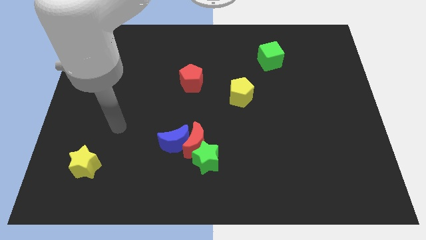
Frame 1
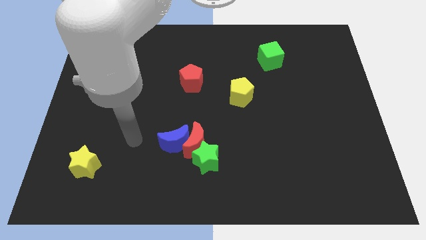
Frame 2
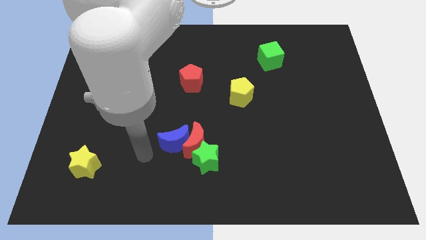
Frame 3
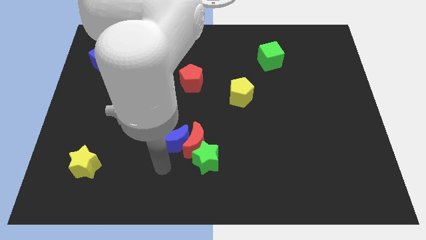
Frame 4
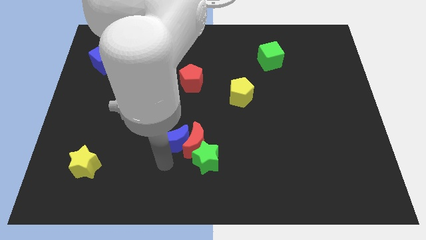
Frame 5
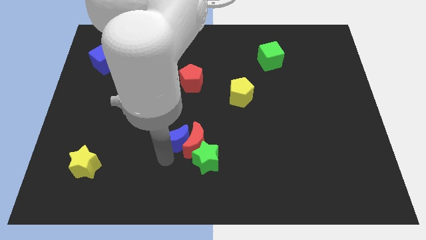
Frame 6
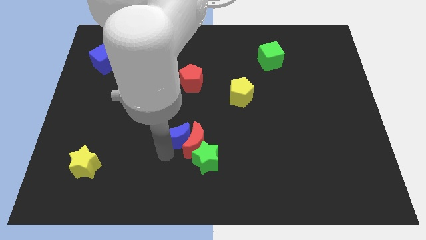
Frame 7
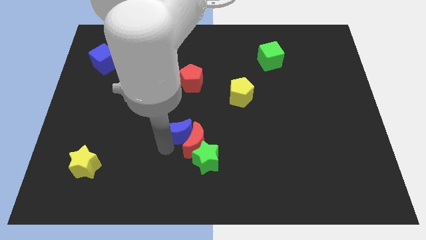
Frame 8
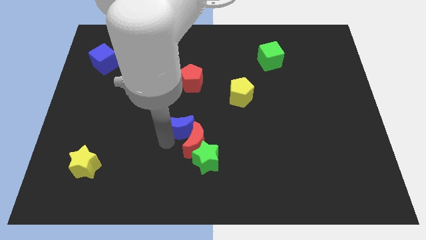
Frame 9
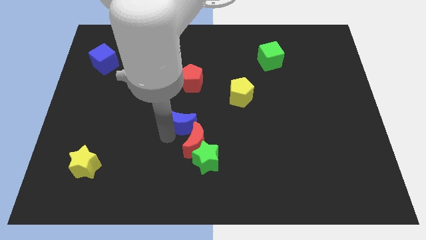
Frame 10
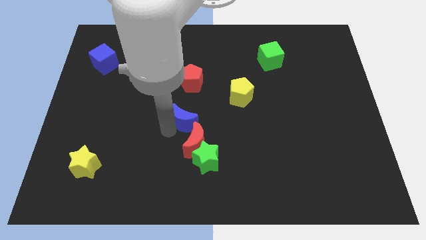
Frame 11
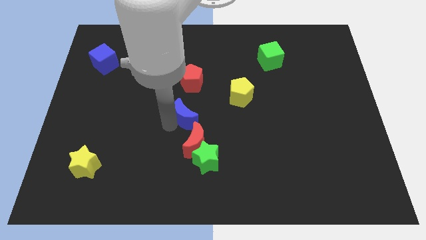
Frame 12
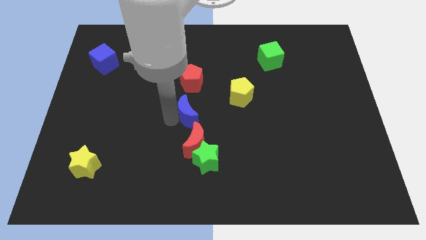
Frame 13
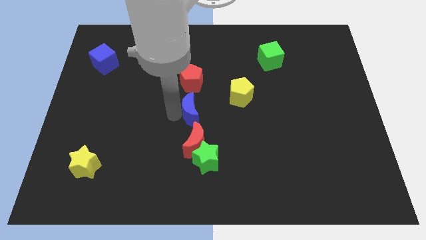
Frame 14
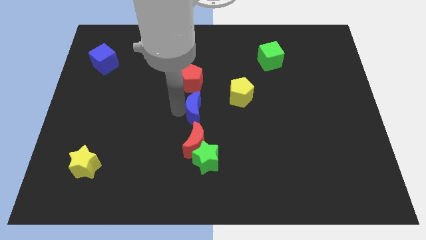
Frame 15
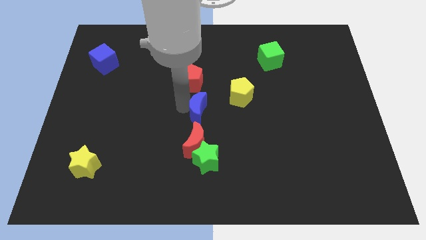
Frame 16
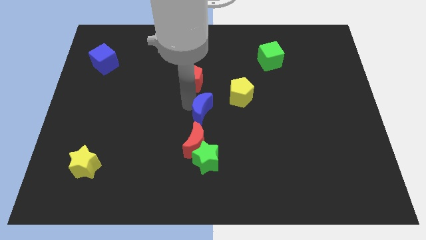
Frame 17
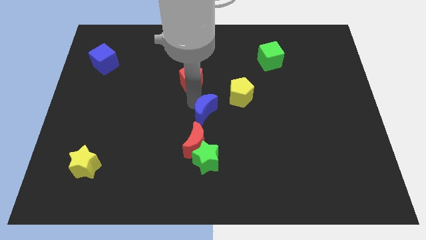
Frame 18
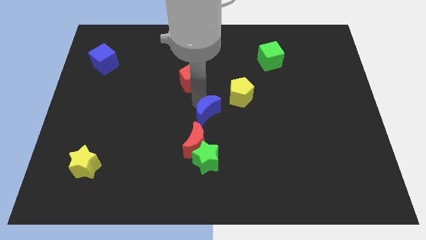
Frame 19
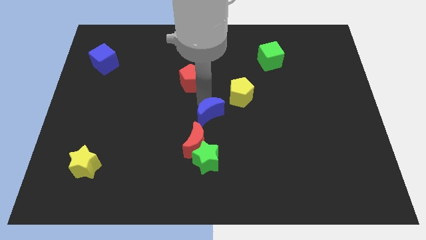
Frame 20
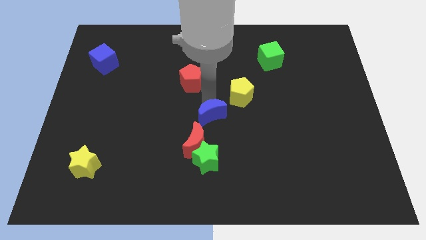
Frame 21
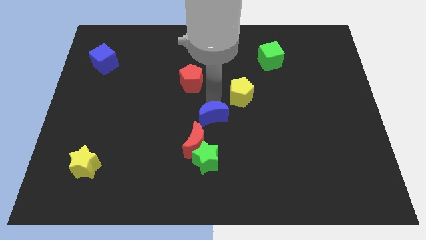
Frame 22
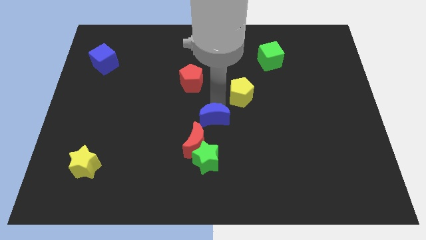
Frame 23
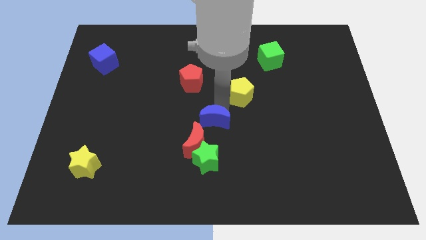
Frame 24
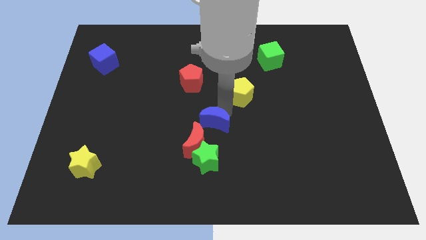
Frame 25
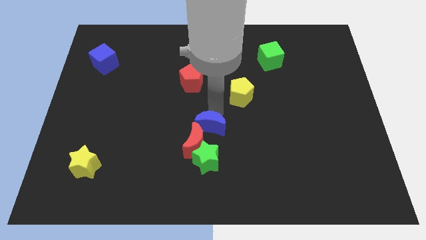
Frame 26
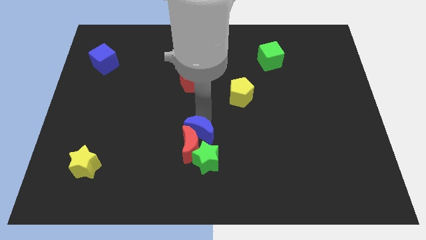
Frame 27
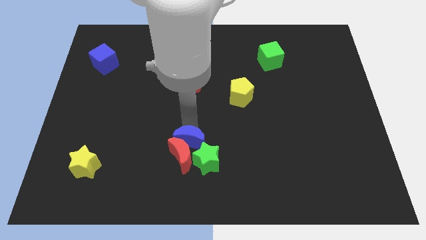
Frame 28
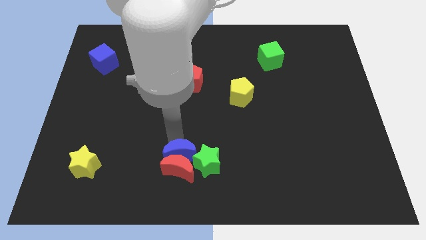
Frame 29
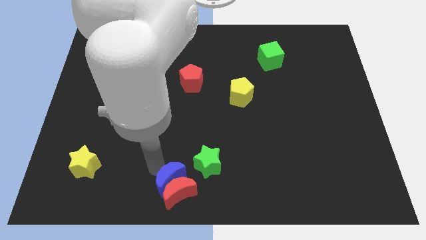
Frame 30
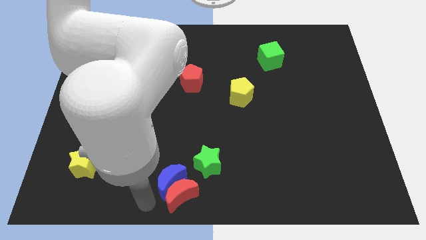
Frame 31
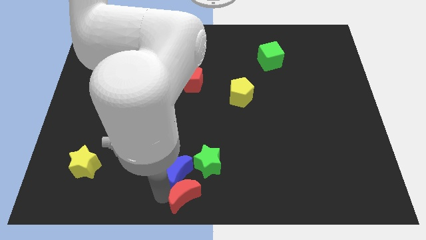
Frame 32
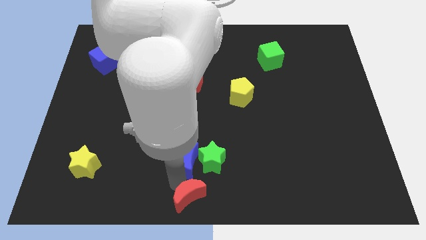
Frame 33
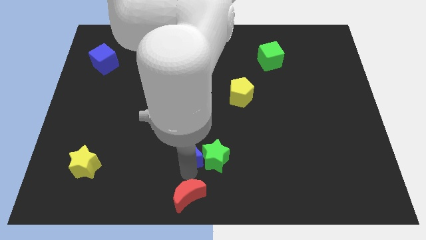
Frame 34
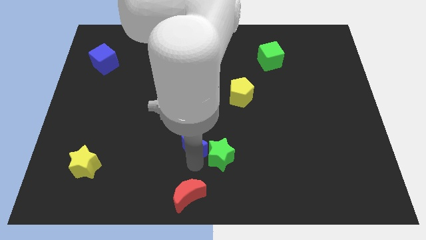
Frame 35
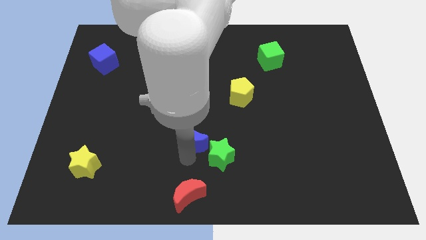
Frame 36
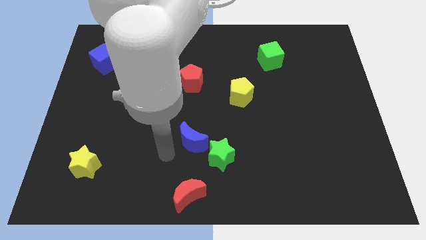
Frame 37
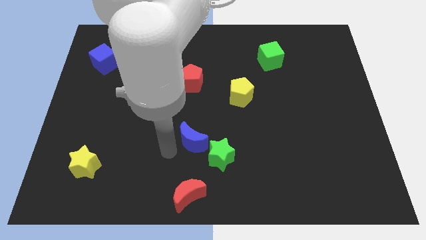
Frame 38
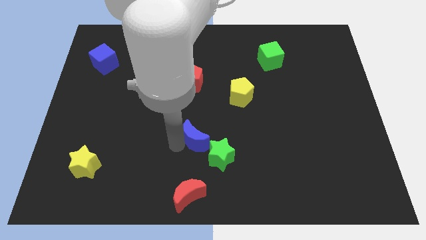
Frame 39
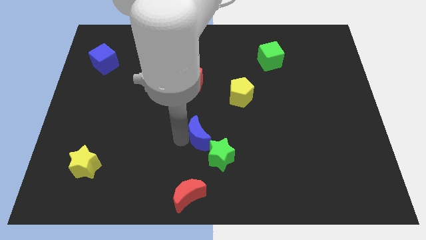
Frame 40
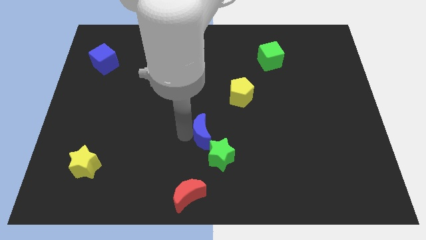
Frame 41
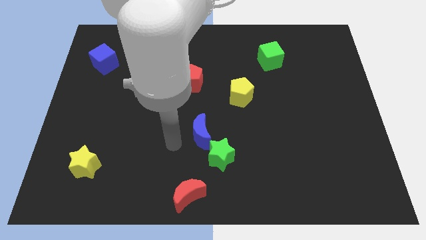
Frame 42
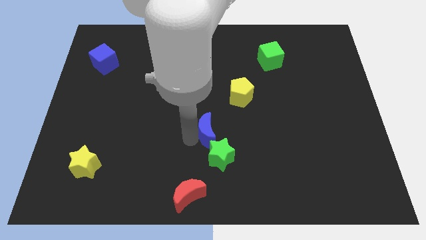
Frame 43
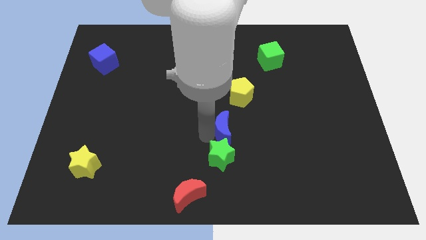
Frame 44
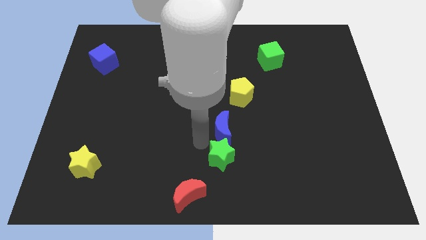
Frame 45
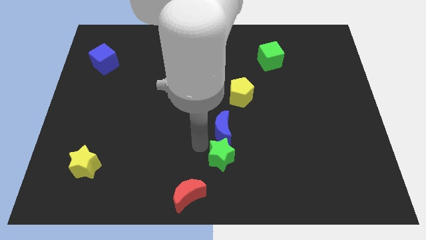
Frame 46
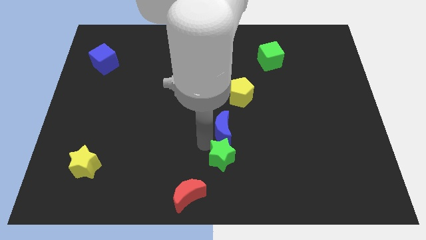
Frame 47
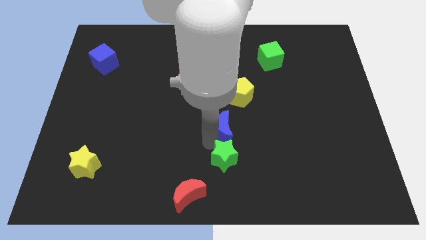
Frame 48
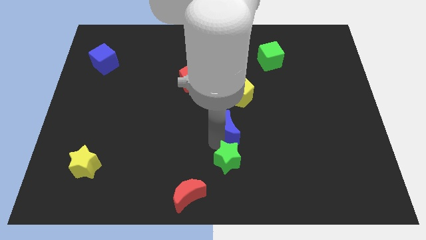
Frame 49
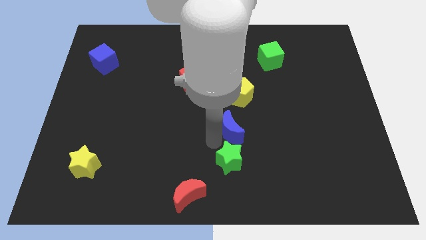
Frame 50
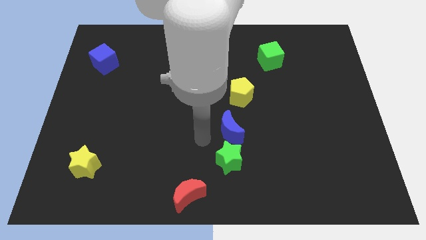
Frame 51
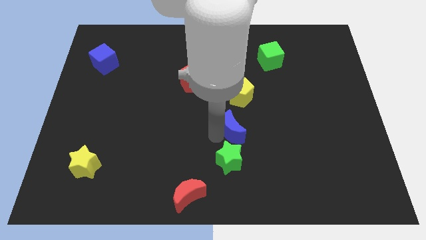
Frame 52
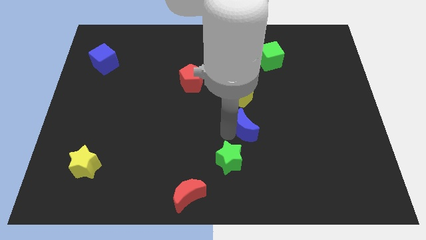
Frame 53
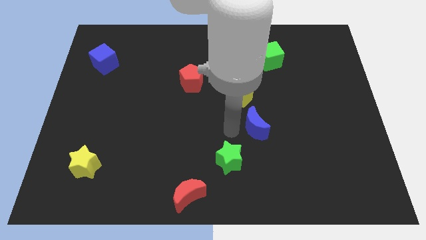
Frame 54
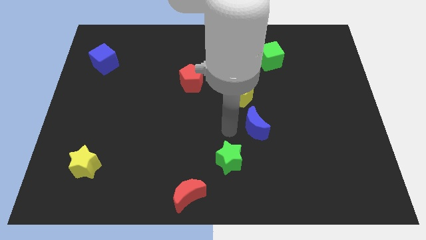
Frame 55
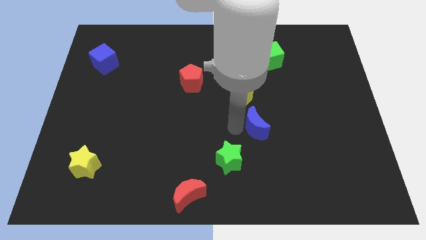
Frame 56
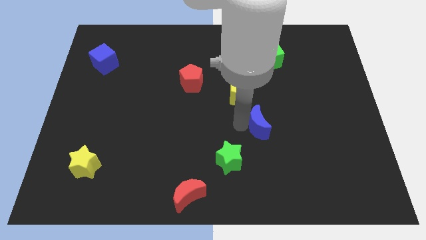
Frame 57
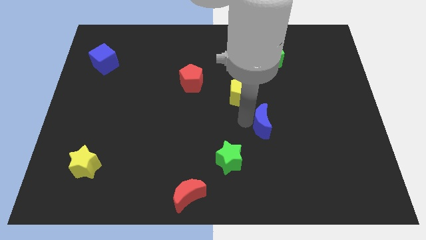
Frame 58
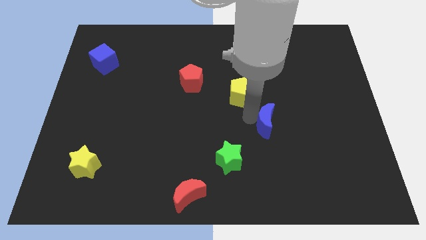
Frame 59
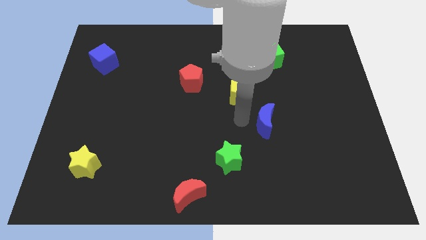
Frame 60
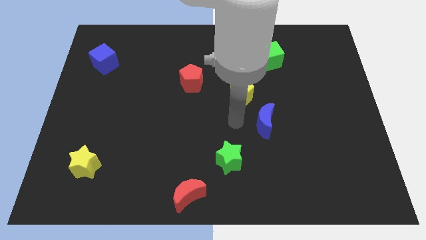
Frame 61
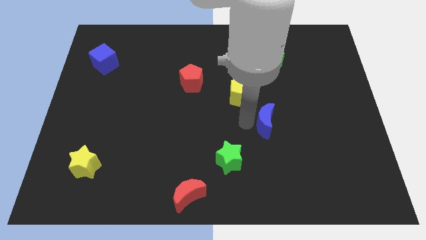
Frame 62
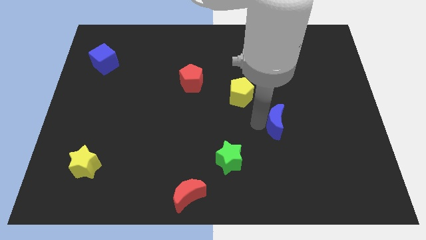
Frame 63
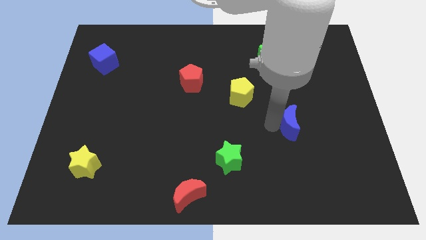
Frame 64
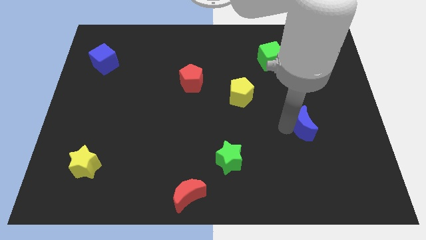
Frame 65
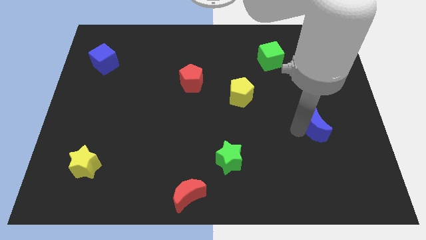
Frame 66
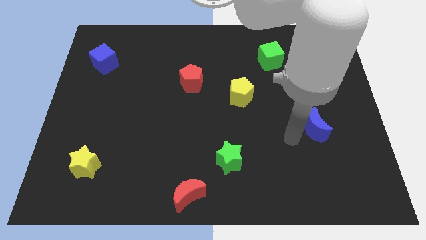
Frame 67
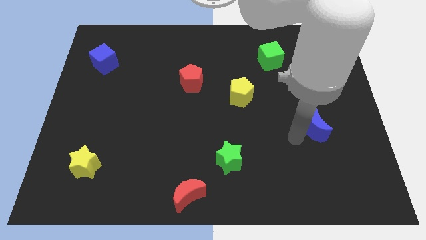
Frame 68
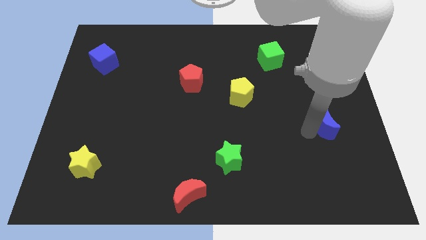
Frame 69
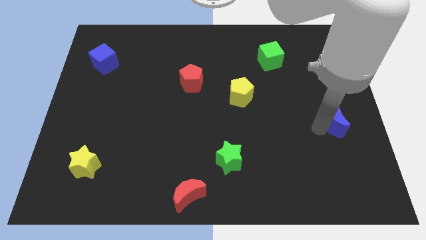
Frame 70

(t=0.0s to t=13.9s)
push the blue moon to the right side of the board
